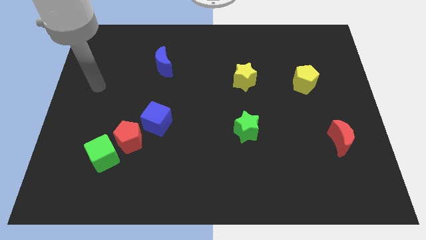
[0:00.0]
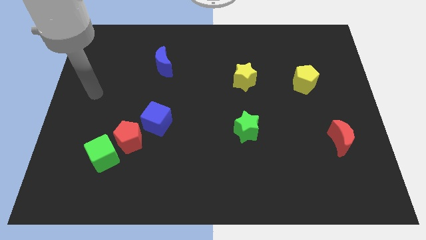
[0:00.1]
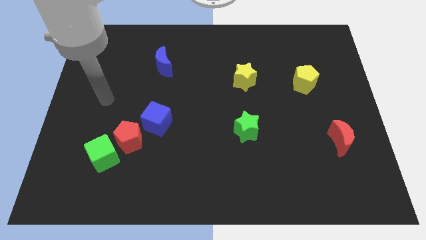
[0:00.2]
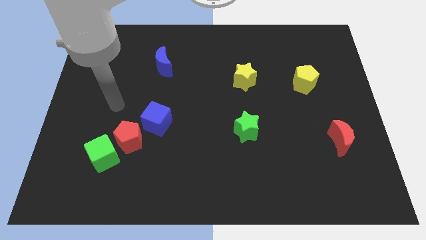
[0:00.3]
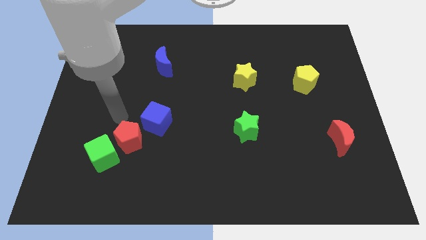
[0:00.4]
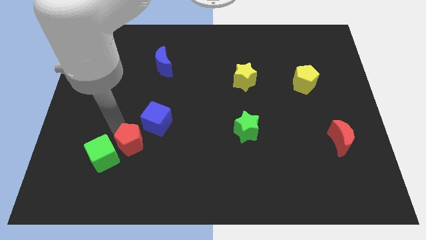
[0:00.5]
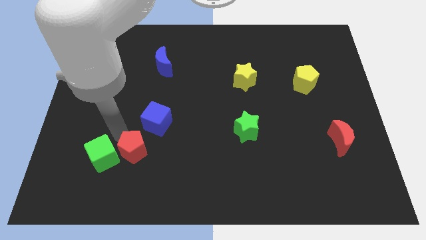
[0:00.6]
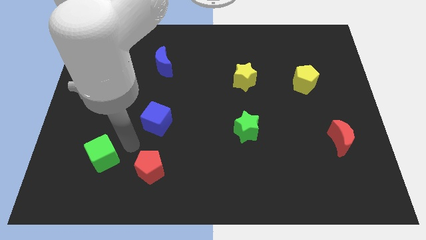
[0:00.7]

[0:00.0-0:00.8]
move the green cube away from the red pentagon

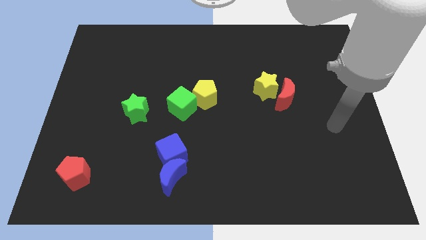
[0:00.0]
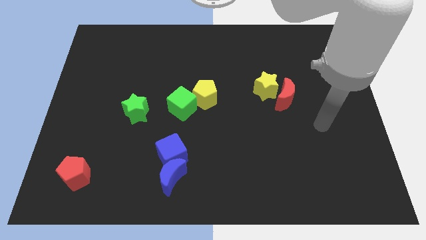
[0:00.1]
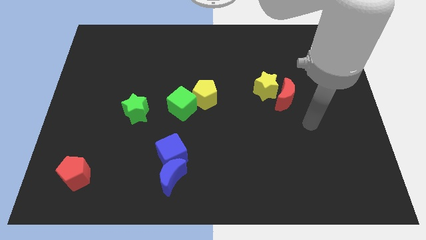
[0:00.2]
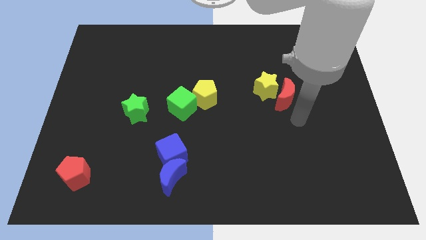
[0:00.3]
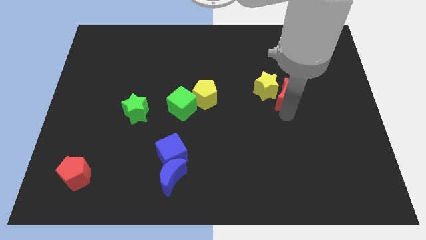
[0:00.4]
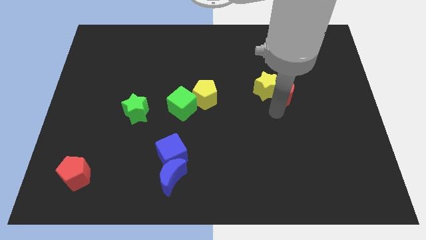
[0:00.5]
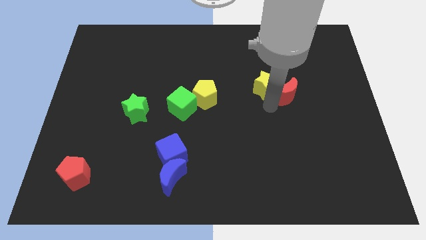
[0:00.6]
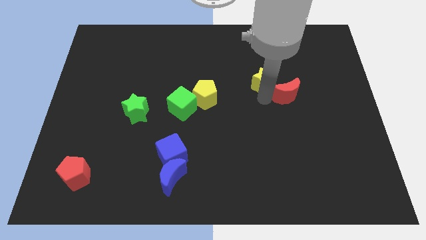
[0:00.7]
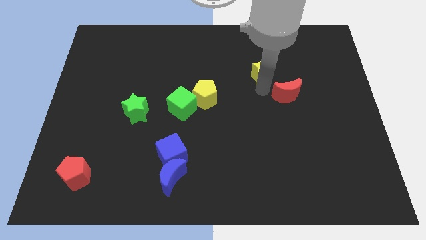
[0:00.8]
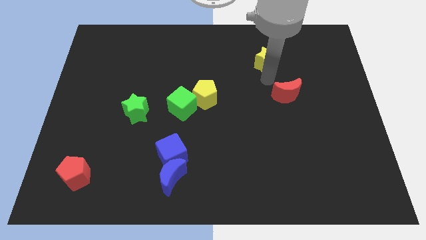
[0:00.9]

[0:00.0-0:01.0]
move the red moon away from the yellow star

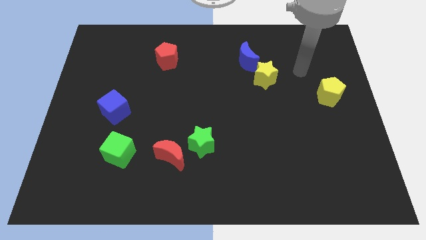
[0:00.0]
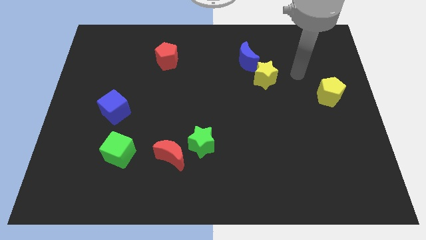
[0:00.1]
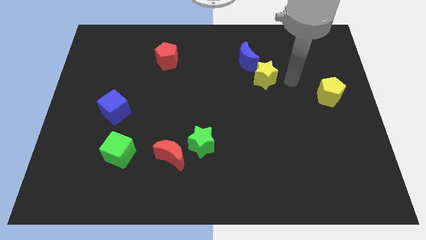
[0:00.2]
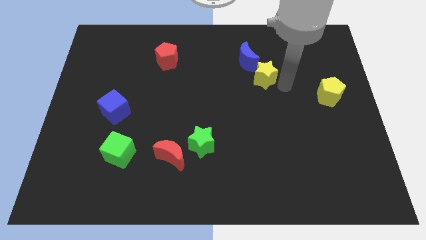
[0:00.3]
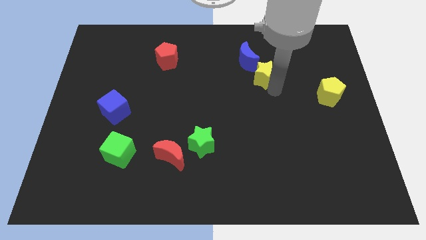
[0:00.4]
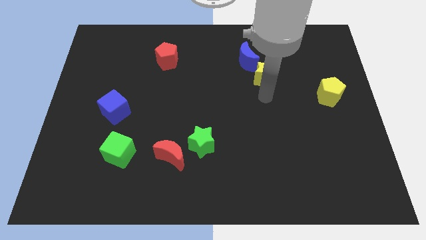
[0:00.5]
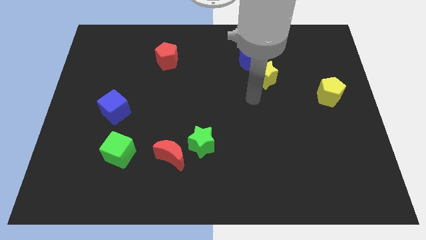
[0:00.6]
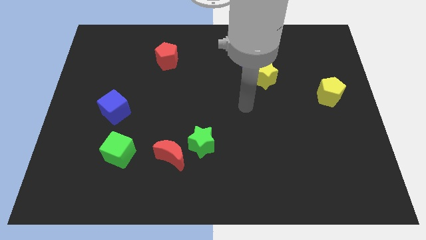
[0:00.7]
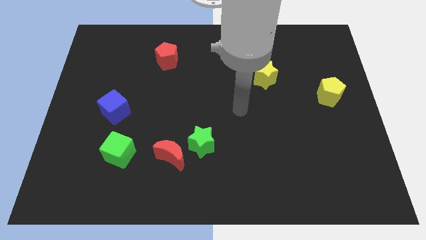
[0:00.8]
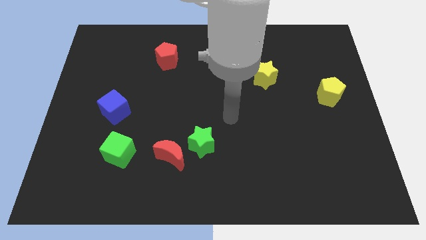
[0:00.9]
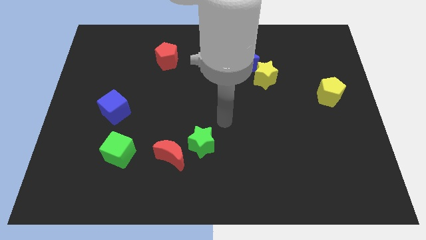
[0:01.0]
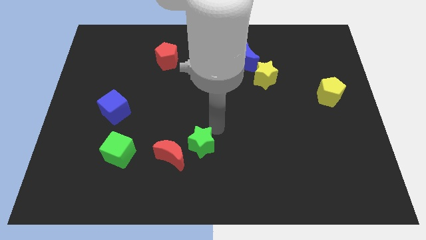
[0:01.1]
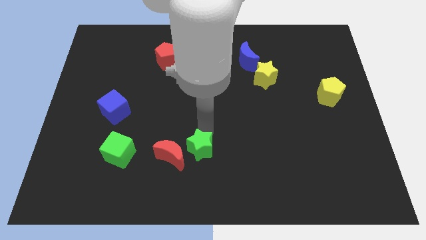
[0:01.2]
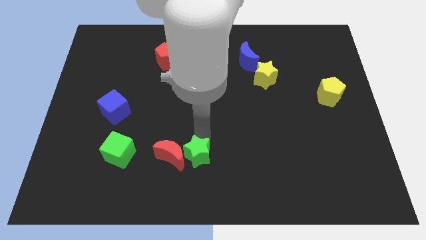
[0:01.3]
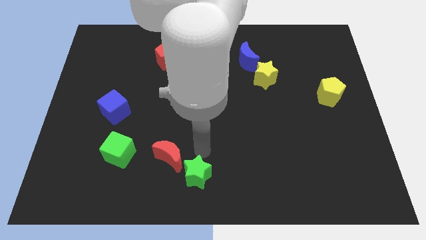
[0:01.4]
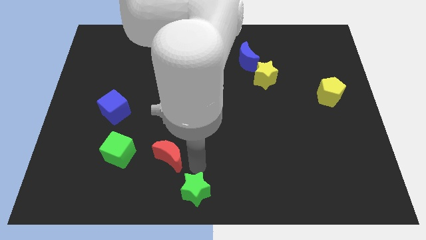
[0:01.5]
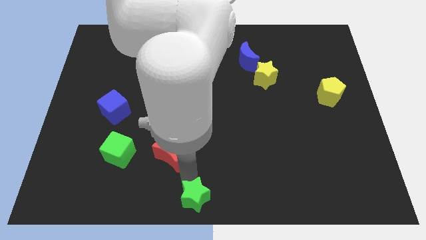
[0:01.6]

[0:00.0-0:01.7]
move the red moon away from the green star

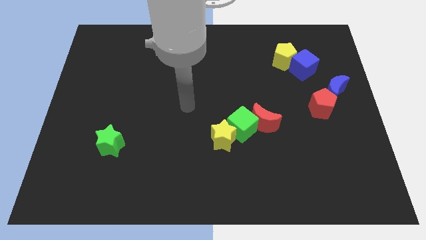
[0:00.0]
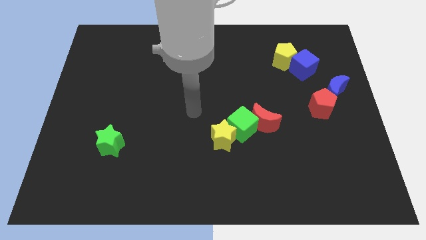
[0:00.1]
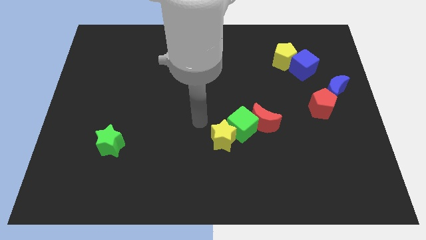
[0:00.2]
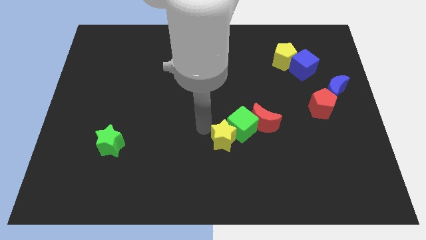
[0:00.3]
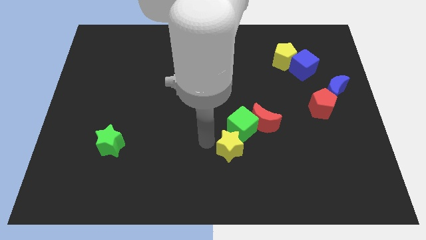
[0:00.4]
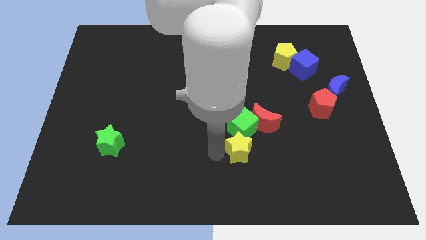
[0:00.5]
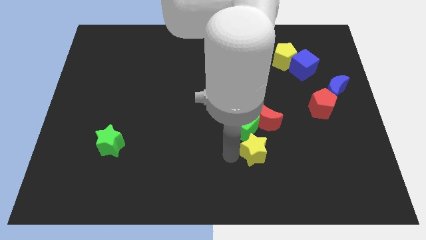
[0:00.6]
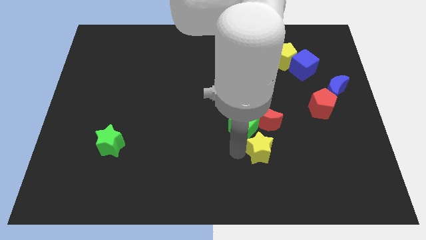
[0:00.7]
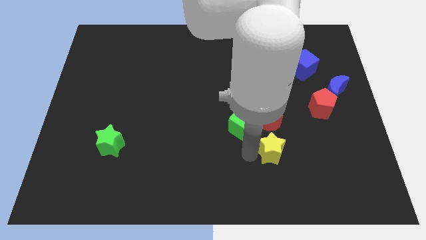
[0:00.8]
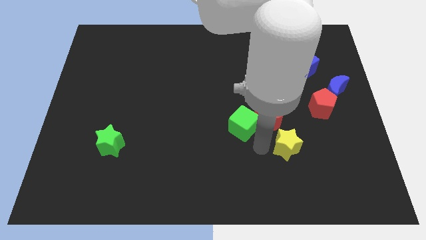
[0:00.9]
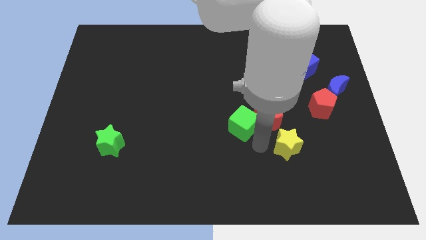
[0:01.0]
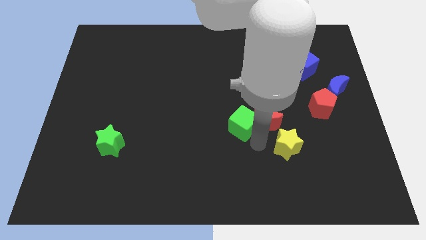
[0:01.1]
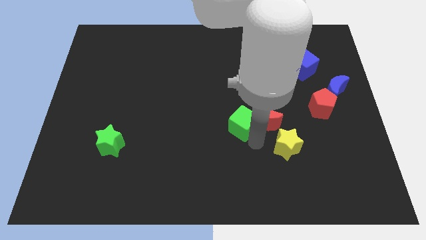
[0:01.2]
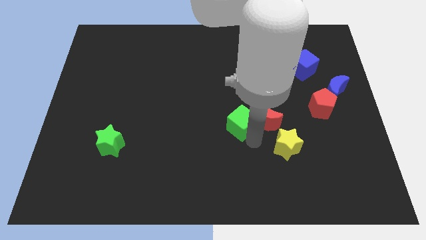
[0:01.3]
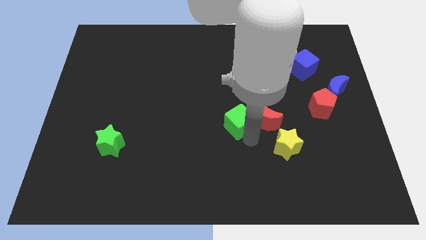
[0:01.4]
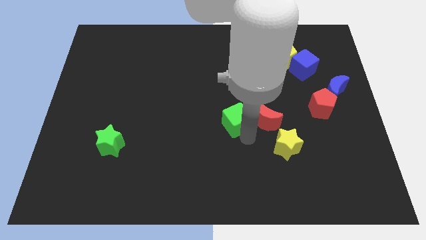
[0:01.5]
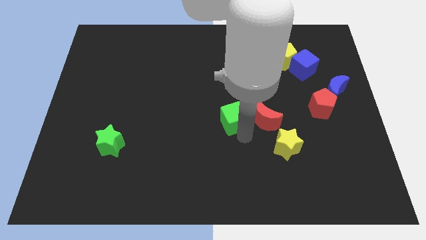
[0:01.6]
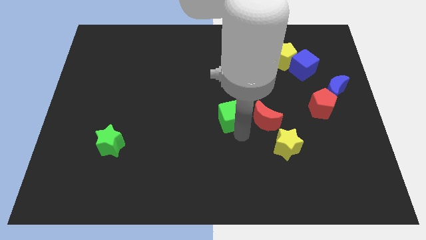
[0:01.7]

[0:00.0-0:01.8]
separate the green cube from the yellow star and red moon

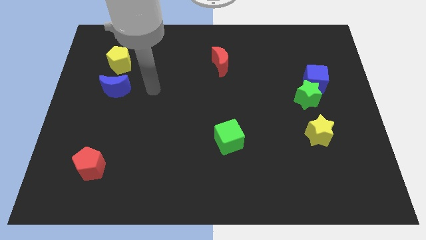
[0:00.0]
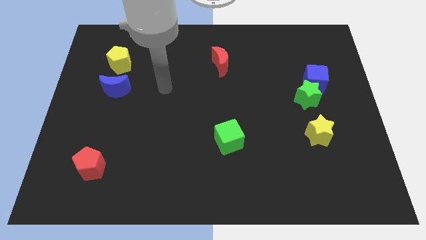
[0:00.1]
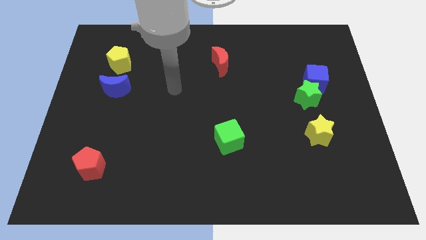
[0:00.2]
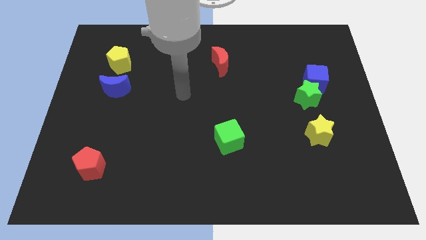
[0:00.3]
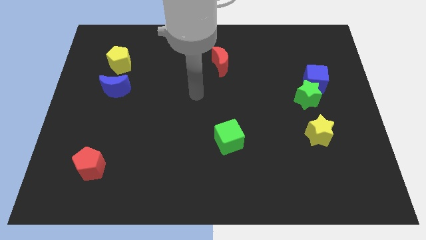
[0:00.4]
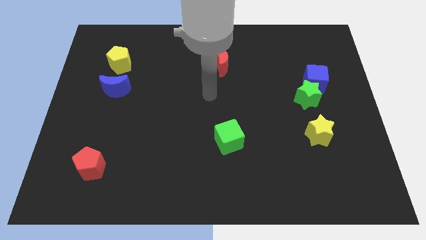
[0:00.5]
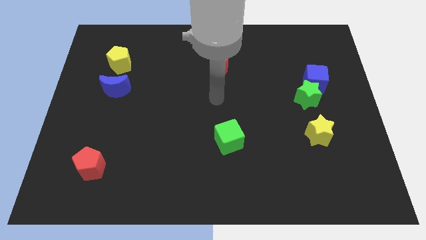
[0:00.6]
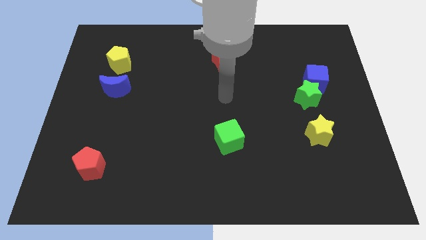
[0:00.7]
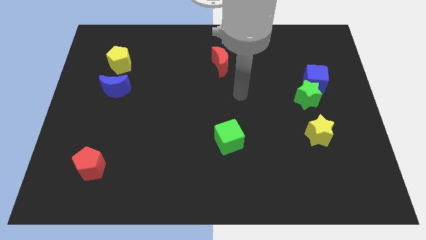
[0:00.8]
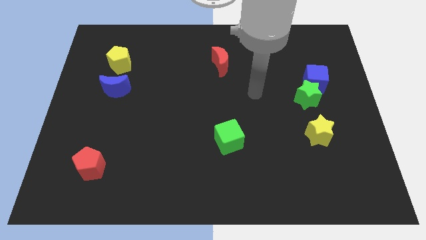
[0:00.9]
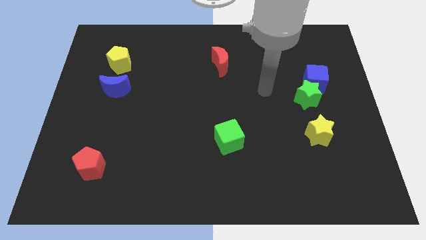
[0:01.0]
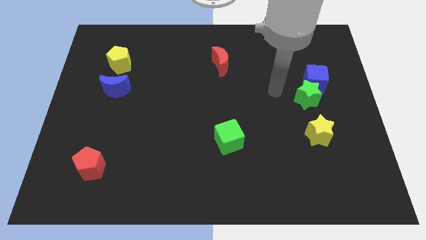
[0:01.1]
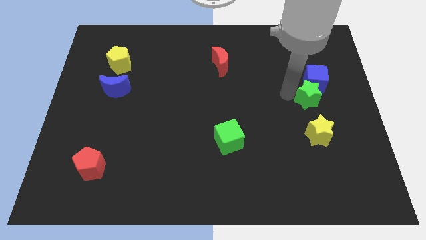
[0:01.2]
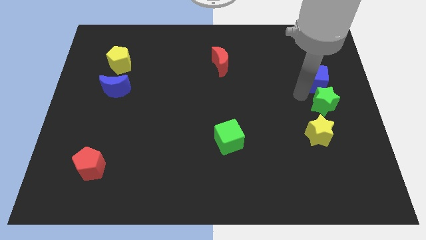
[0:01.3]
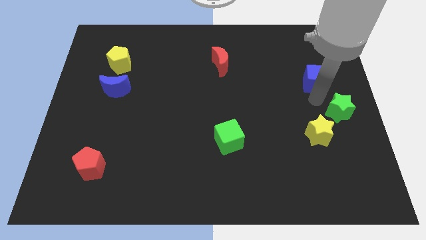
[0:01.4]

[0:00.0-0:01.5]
move the blue cube away from the green star

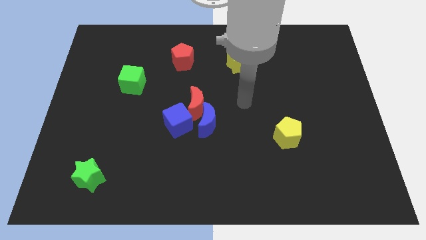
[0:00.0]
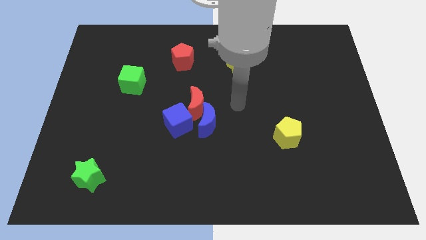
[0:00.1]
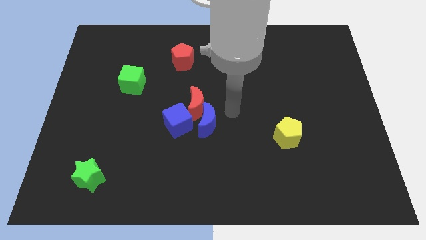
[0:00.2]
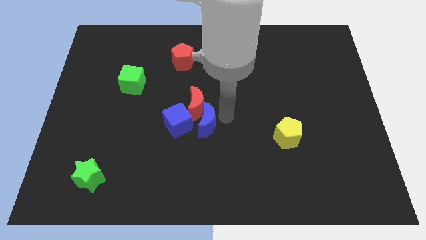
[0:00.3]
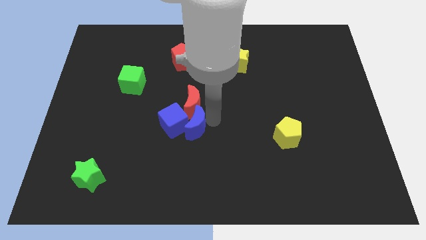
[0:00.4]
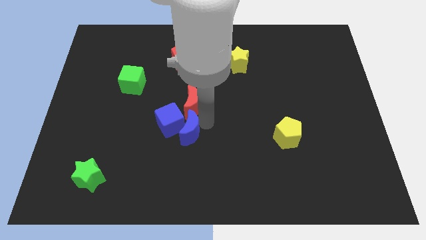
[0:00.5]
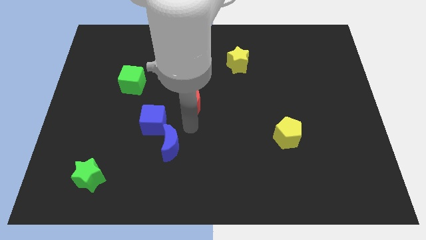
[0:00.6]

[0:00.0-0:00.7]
separate the red moon from the blue moon and blue cube

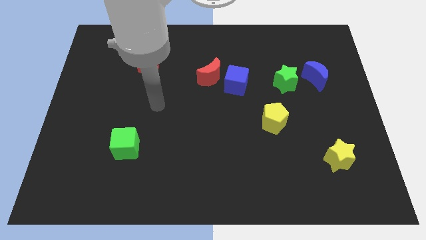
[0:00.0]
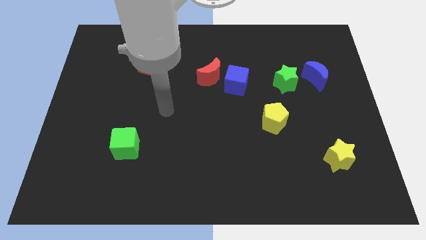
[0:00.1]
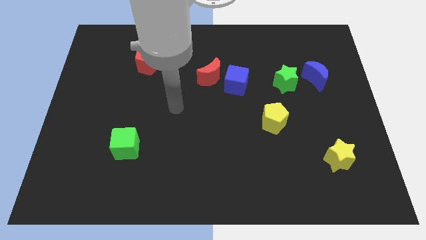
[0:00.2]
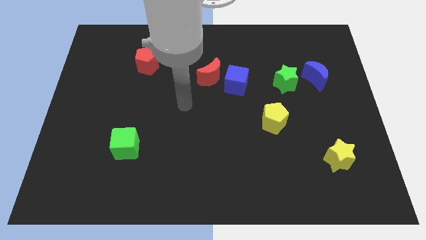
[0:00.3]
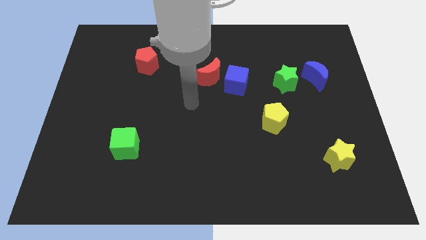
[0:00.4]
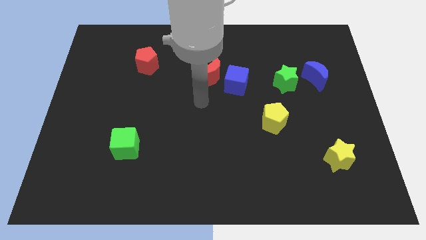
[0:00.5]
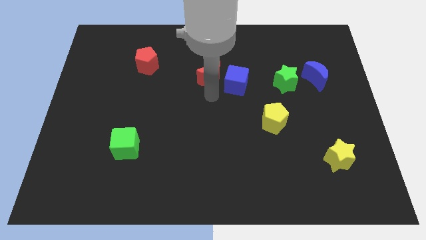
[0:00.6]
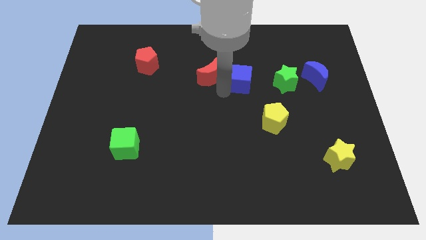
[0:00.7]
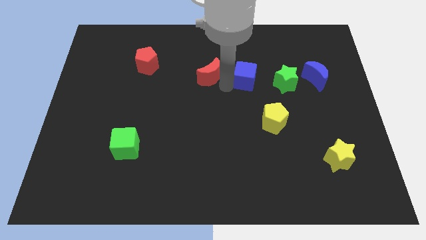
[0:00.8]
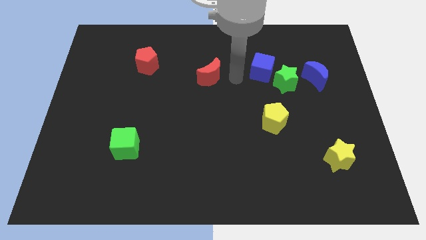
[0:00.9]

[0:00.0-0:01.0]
move the red moon away from the blue cube

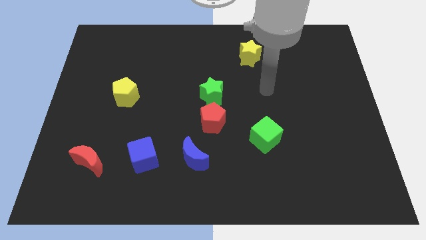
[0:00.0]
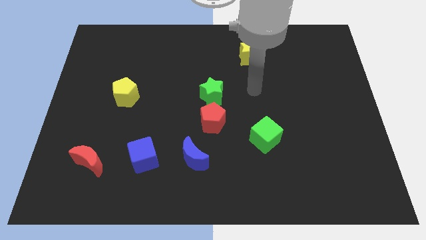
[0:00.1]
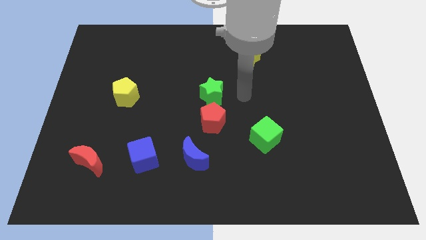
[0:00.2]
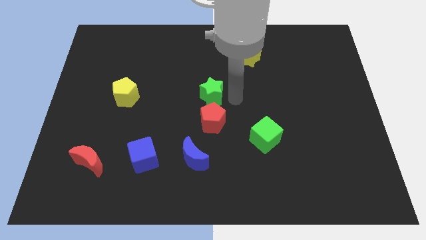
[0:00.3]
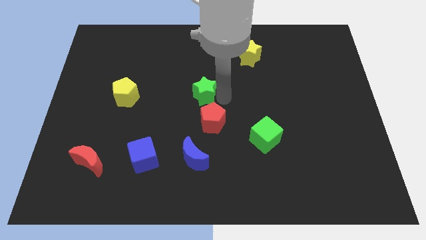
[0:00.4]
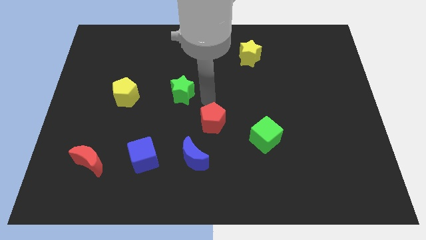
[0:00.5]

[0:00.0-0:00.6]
pull the red pentagon apart from the green star
